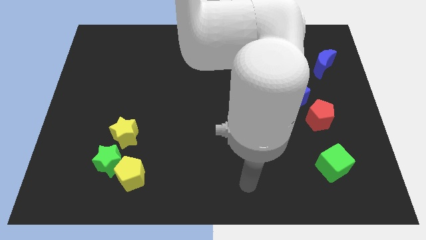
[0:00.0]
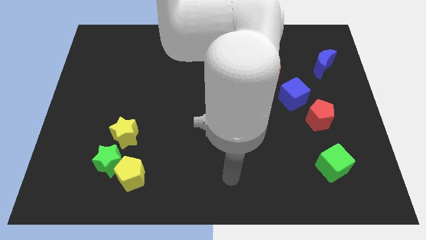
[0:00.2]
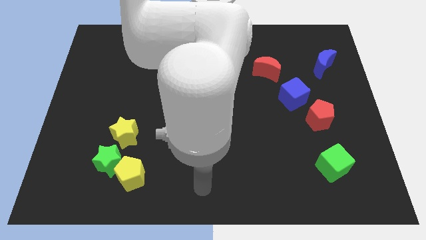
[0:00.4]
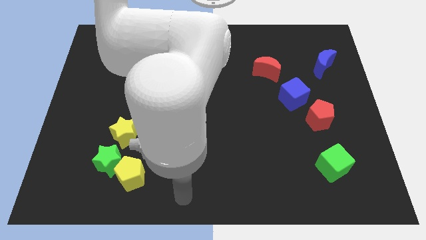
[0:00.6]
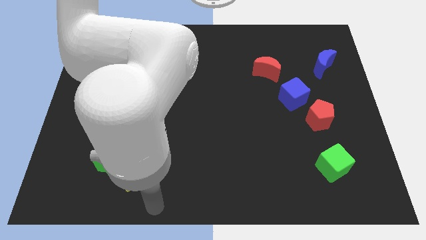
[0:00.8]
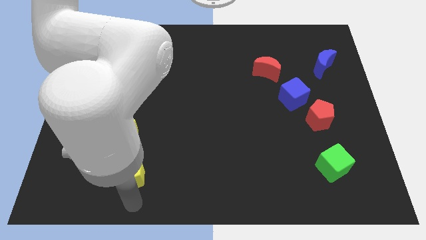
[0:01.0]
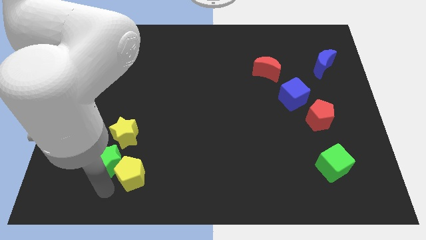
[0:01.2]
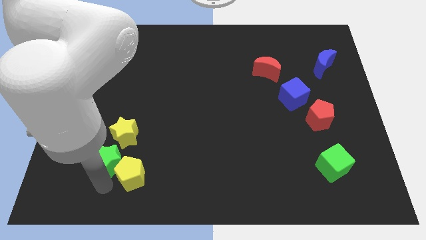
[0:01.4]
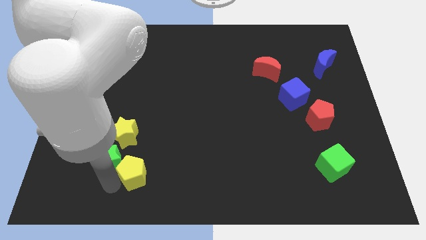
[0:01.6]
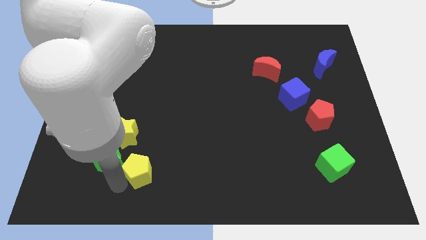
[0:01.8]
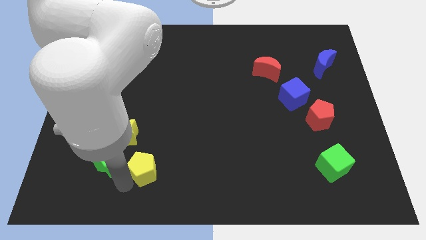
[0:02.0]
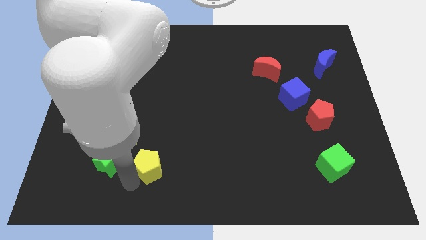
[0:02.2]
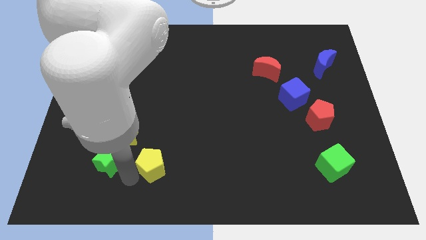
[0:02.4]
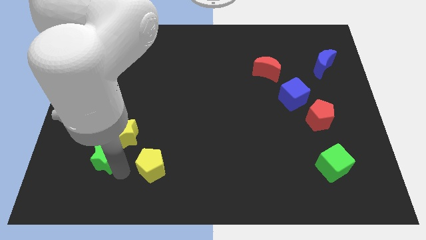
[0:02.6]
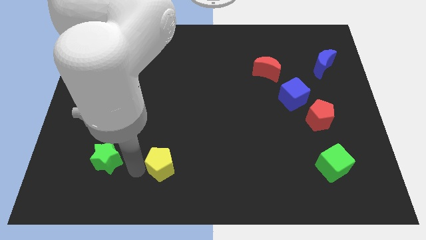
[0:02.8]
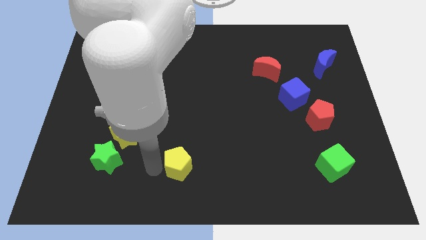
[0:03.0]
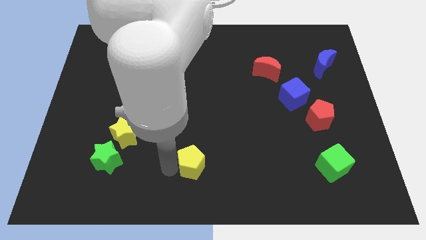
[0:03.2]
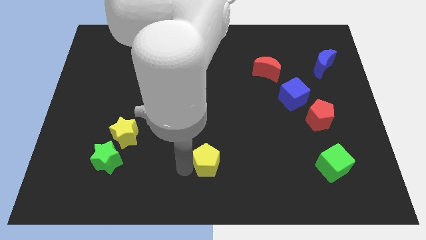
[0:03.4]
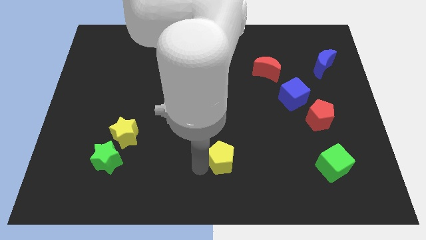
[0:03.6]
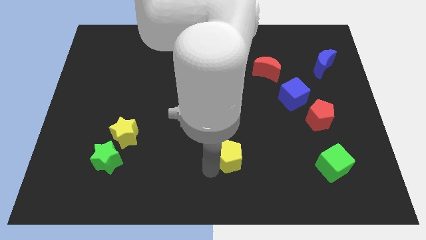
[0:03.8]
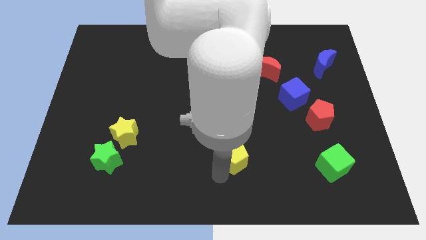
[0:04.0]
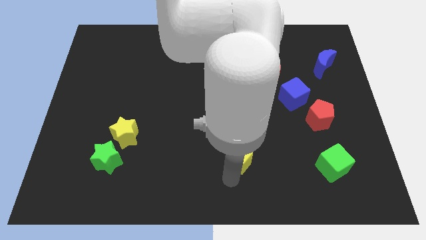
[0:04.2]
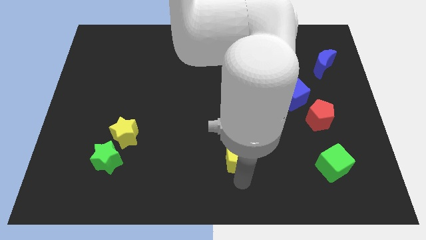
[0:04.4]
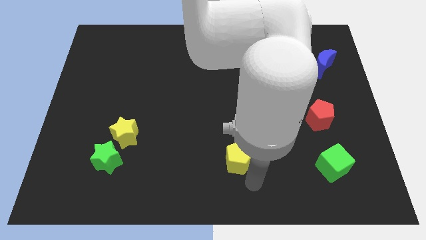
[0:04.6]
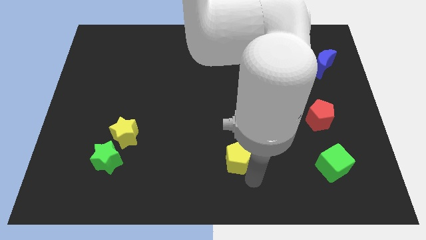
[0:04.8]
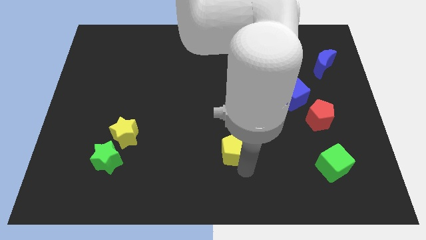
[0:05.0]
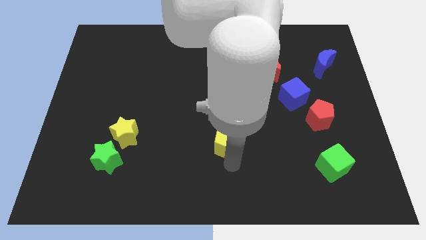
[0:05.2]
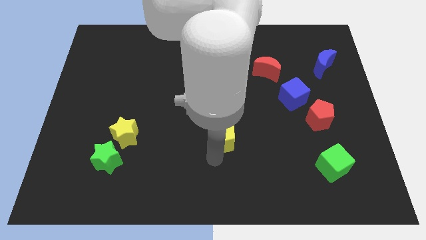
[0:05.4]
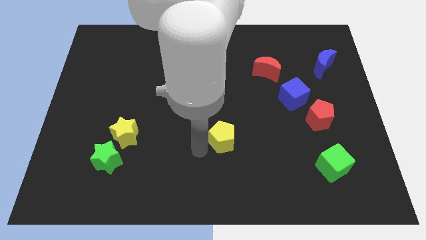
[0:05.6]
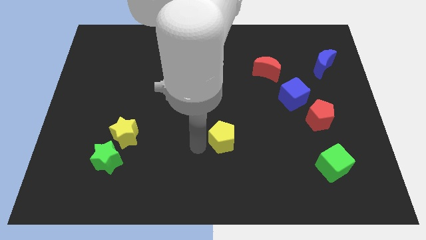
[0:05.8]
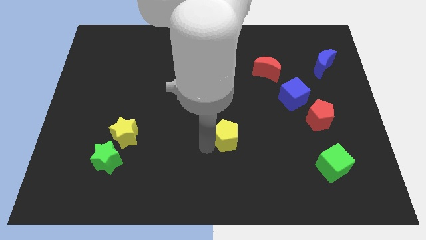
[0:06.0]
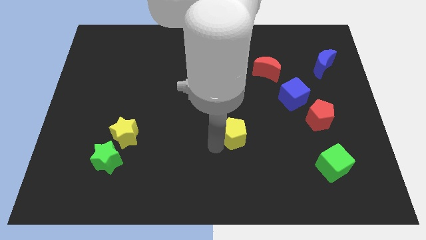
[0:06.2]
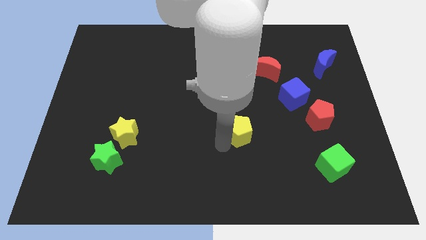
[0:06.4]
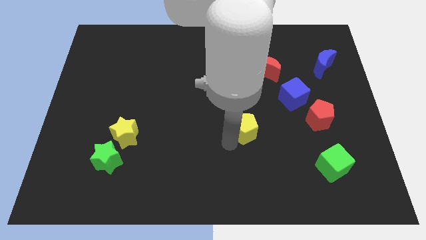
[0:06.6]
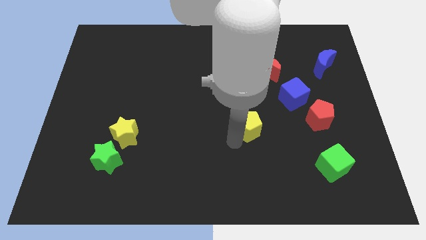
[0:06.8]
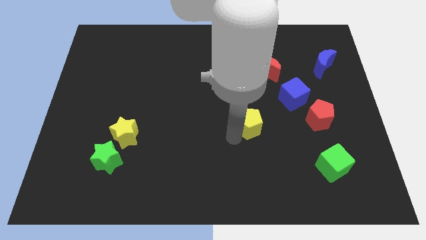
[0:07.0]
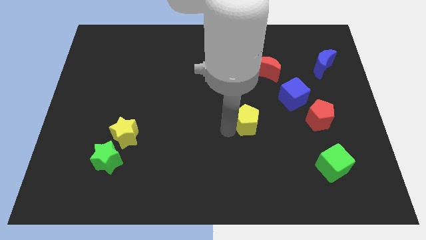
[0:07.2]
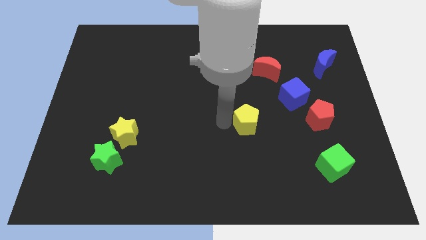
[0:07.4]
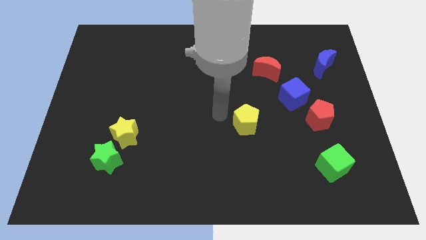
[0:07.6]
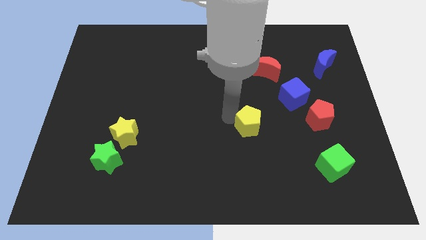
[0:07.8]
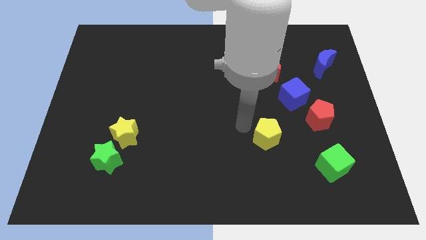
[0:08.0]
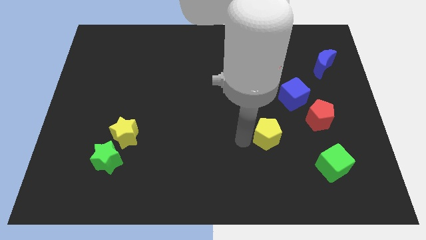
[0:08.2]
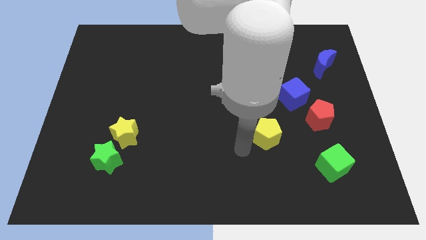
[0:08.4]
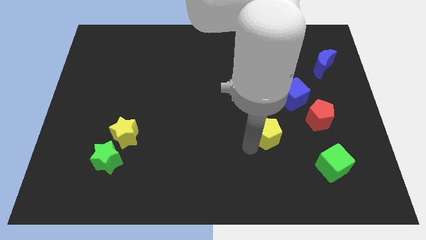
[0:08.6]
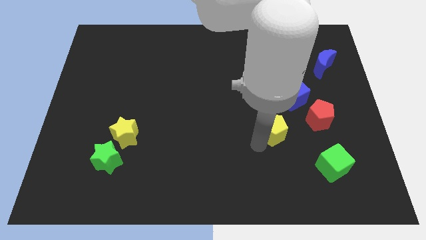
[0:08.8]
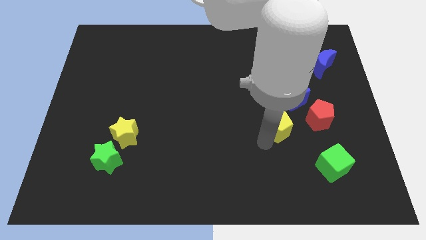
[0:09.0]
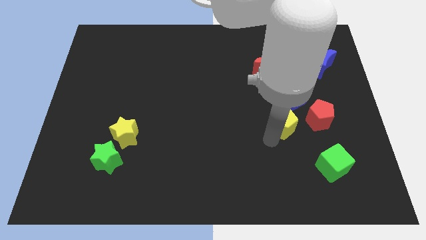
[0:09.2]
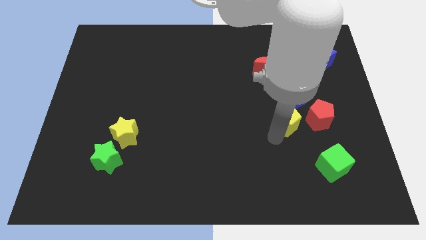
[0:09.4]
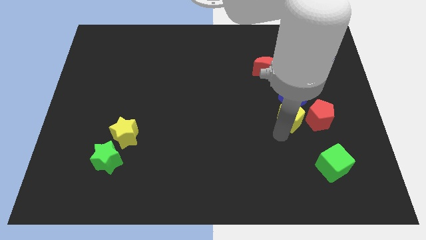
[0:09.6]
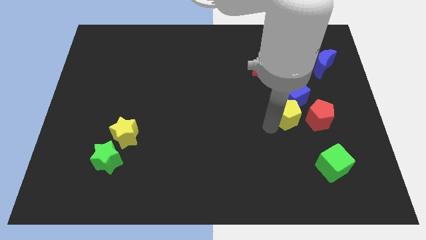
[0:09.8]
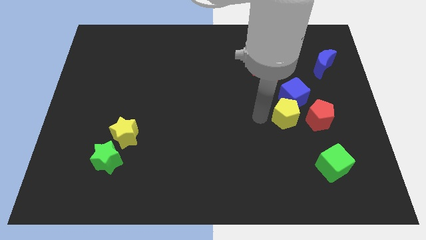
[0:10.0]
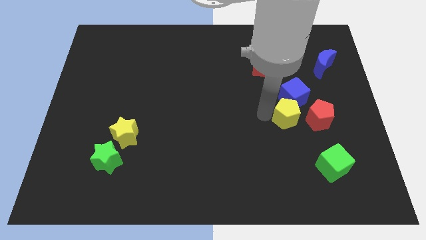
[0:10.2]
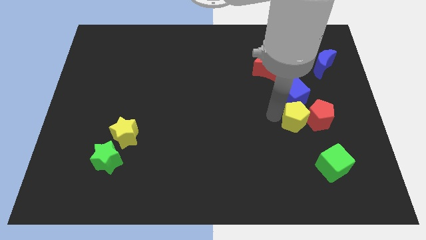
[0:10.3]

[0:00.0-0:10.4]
move the yellow pentagon to the red pentagon

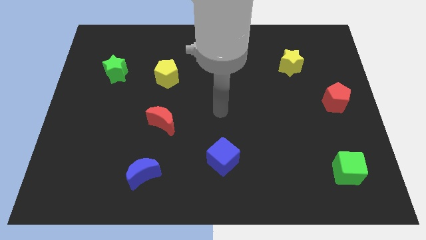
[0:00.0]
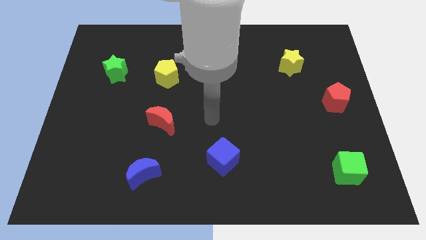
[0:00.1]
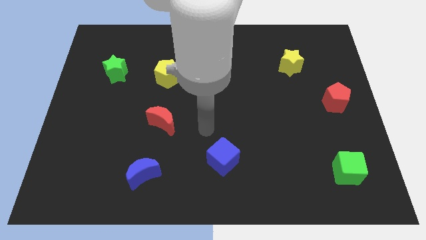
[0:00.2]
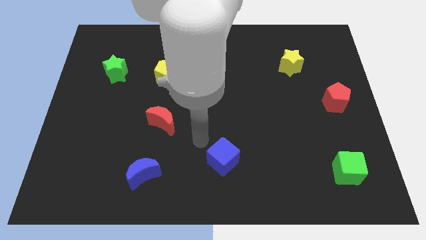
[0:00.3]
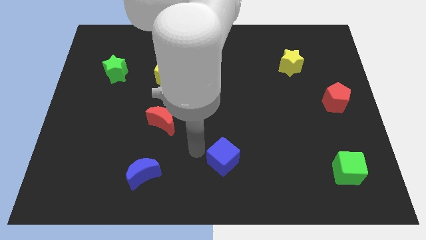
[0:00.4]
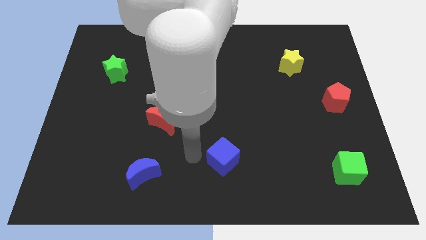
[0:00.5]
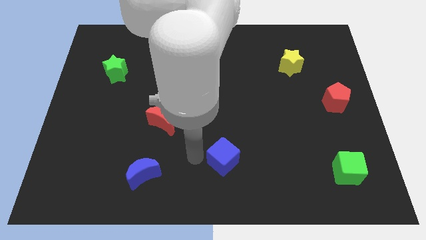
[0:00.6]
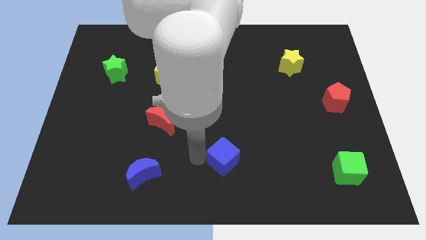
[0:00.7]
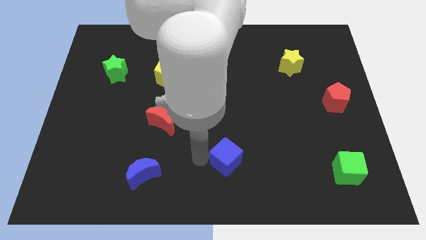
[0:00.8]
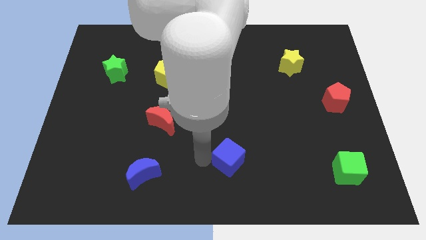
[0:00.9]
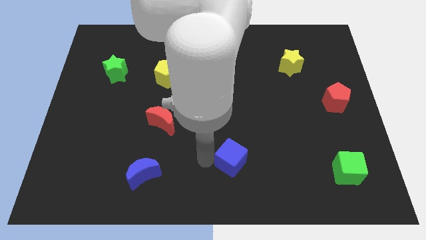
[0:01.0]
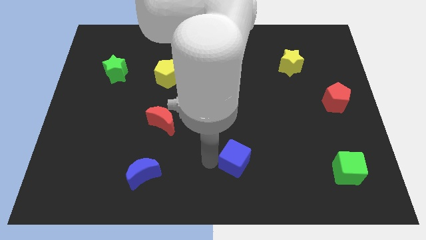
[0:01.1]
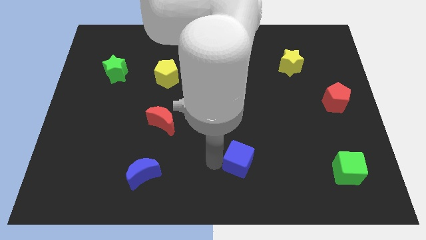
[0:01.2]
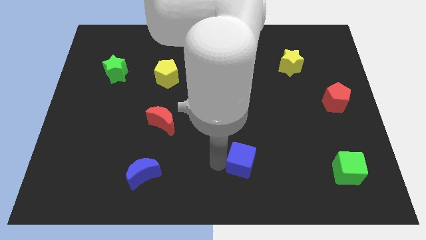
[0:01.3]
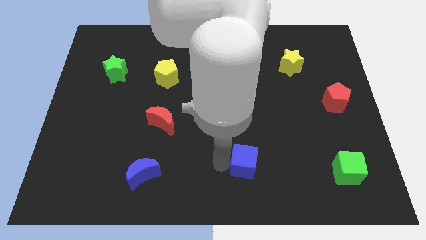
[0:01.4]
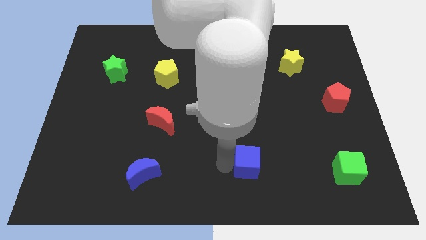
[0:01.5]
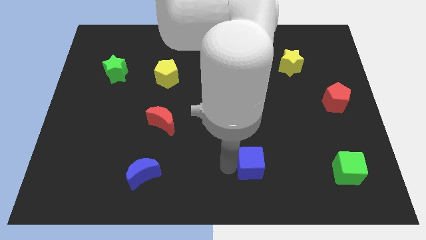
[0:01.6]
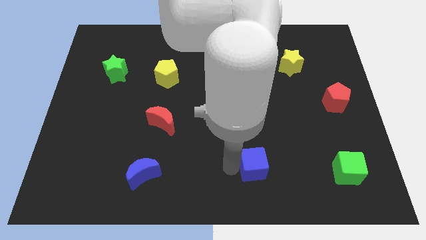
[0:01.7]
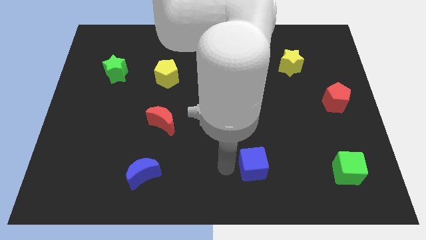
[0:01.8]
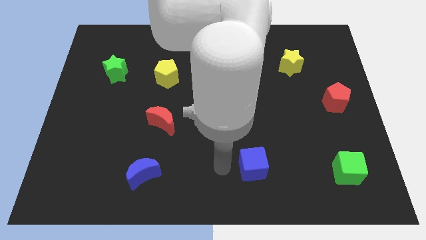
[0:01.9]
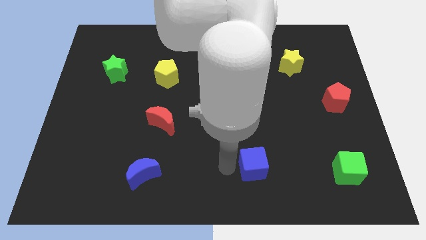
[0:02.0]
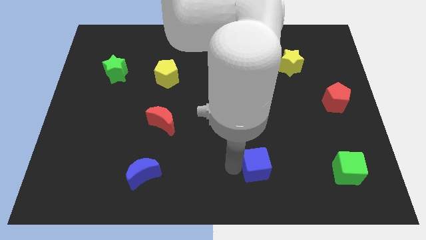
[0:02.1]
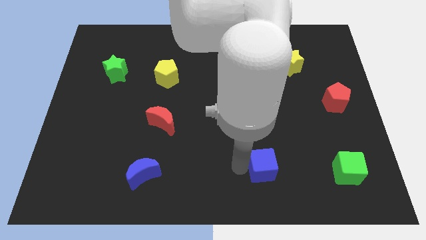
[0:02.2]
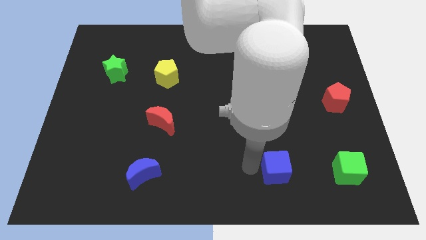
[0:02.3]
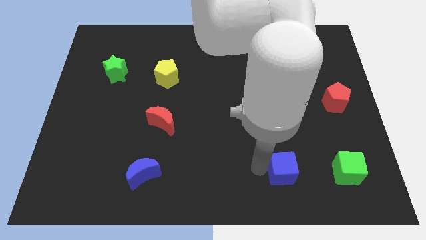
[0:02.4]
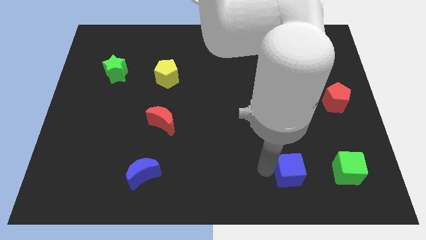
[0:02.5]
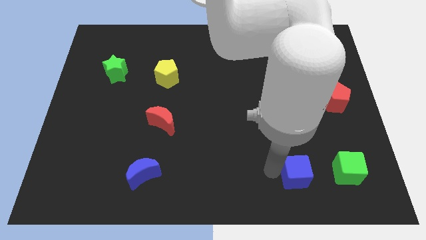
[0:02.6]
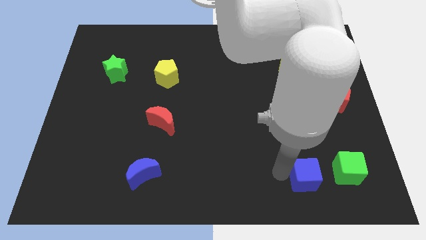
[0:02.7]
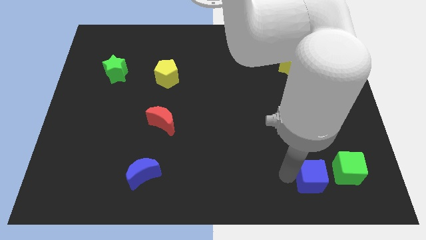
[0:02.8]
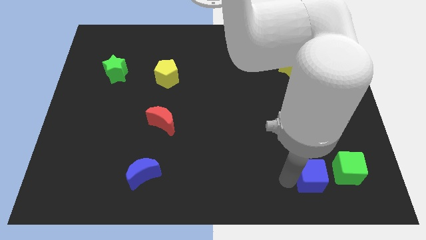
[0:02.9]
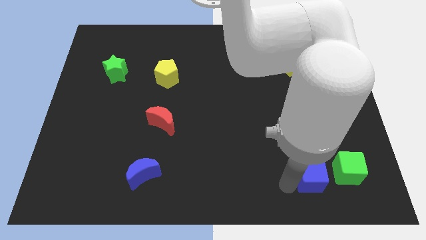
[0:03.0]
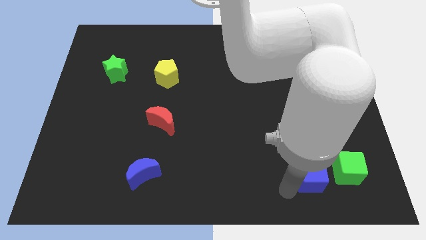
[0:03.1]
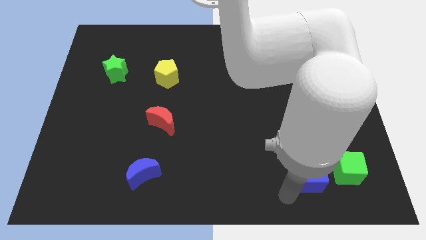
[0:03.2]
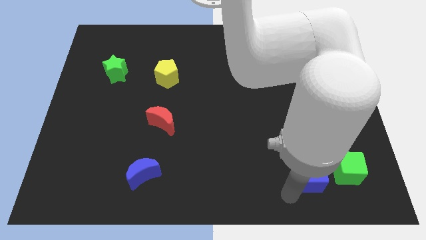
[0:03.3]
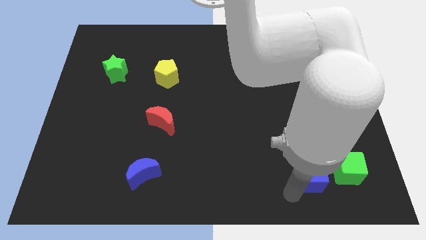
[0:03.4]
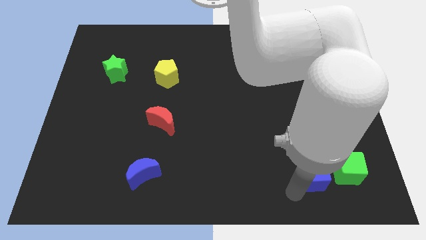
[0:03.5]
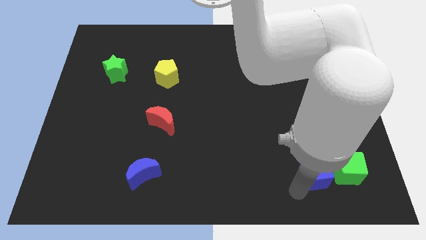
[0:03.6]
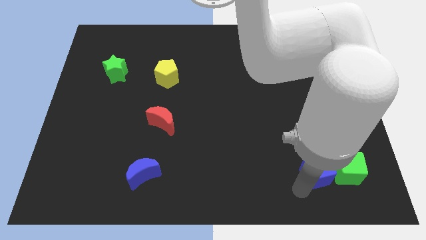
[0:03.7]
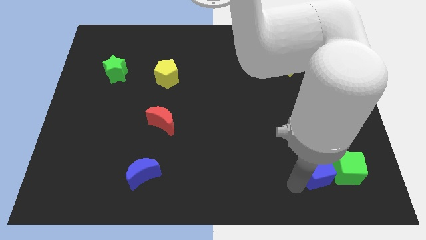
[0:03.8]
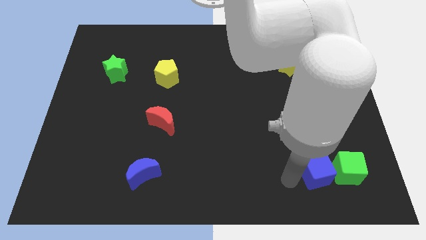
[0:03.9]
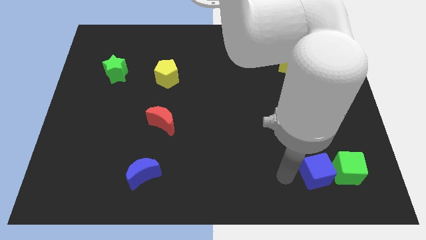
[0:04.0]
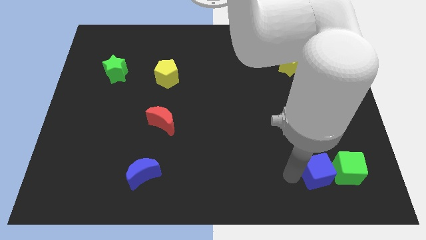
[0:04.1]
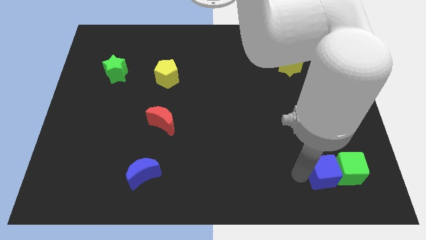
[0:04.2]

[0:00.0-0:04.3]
slide the blue cube to the green cube
